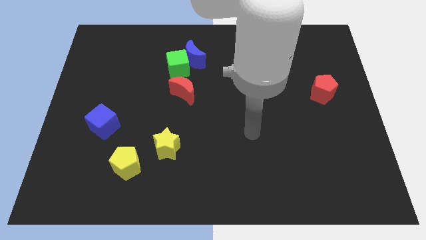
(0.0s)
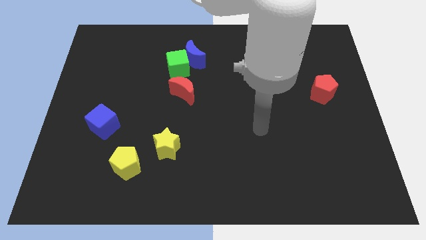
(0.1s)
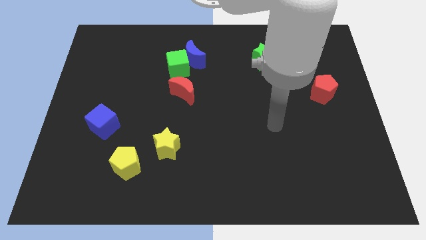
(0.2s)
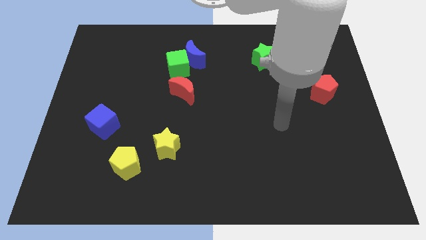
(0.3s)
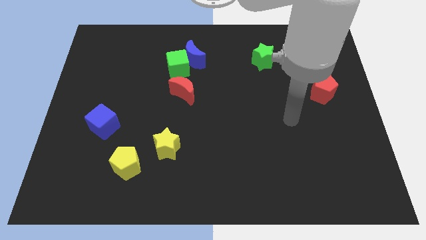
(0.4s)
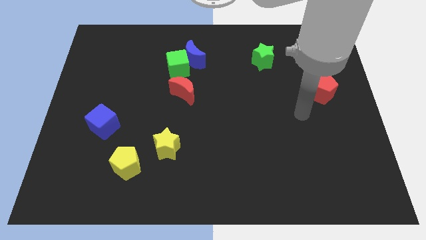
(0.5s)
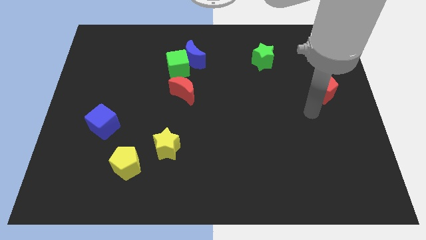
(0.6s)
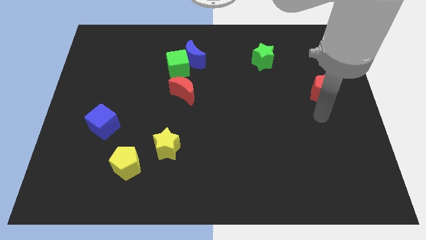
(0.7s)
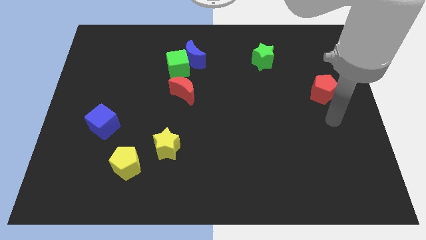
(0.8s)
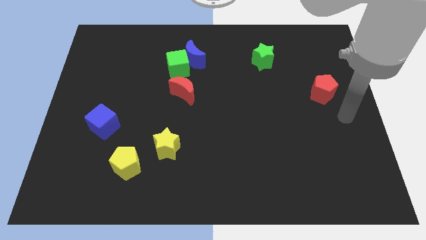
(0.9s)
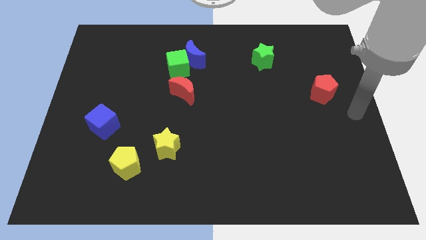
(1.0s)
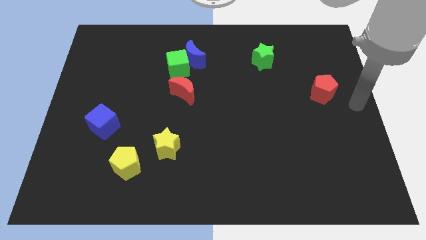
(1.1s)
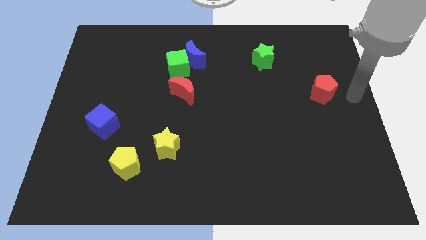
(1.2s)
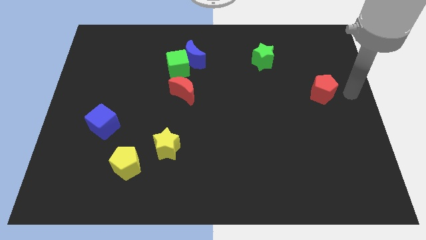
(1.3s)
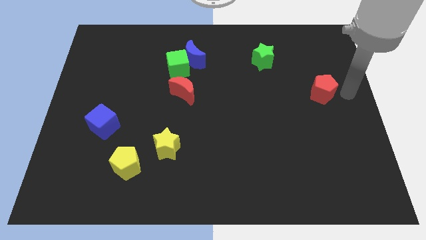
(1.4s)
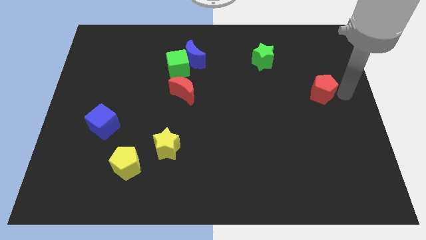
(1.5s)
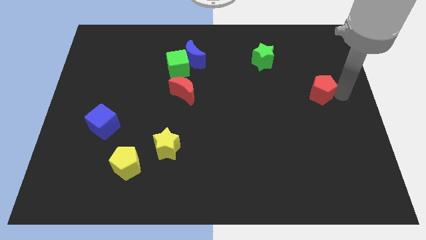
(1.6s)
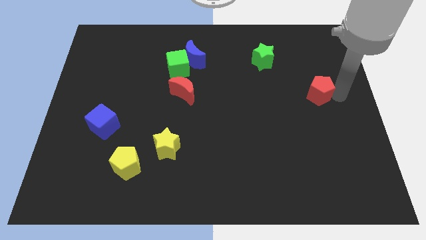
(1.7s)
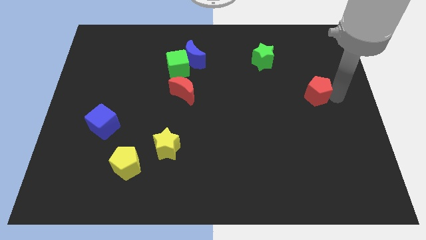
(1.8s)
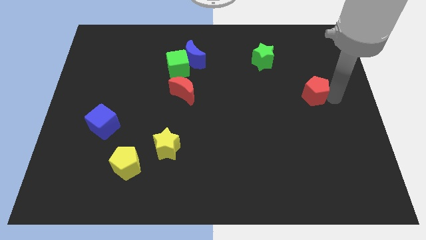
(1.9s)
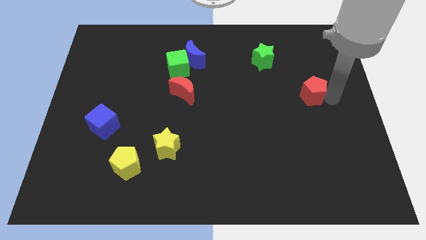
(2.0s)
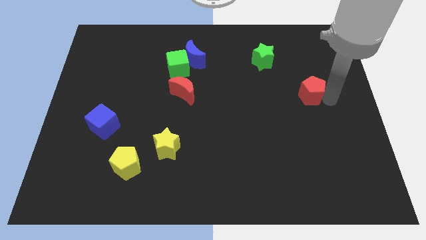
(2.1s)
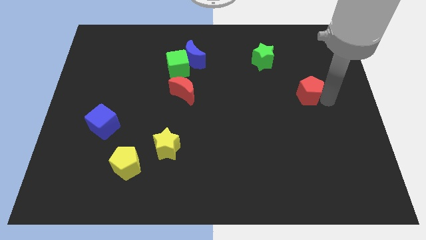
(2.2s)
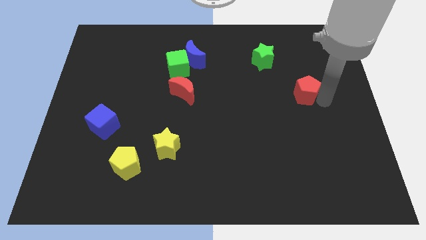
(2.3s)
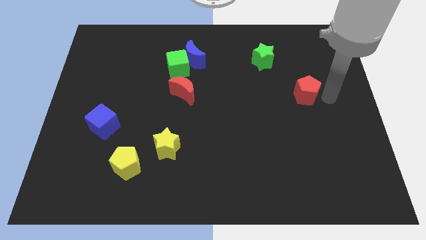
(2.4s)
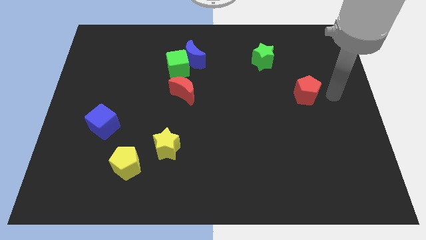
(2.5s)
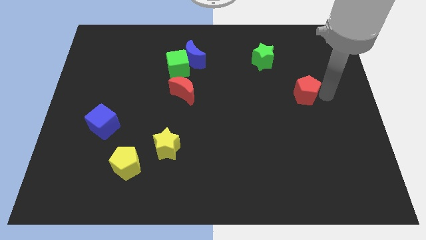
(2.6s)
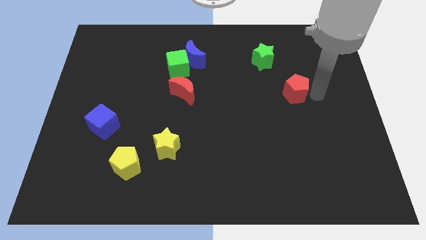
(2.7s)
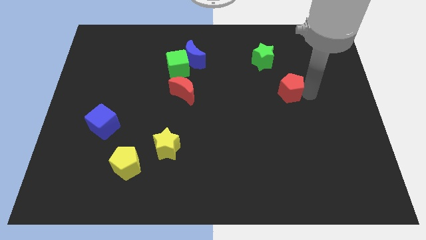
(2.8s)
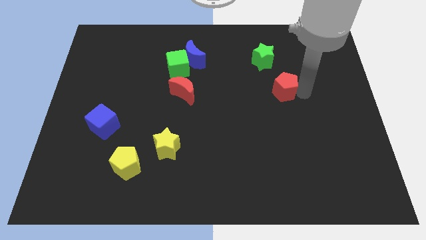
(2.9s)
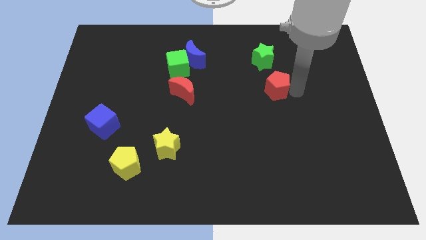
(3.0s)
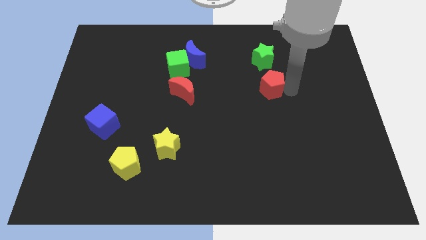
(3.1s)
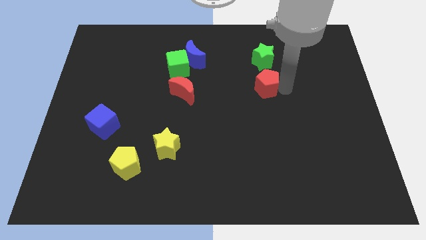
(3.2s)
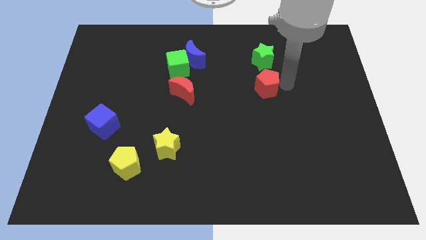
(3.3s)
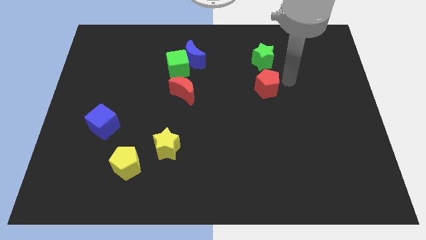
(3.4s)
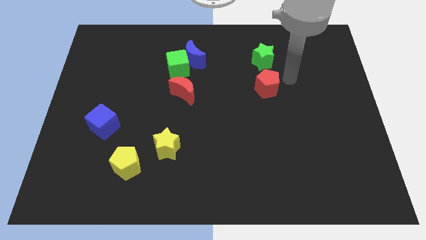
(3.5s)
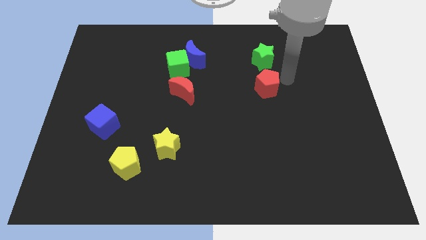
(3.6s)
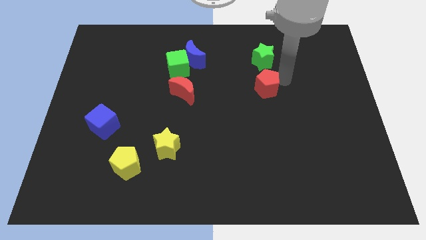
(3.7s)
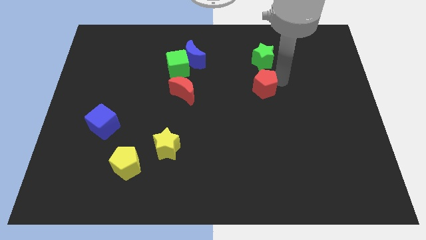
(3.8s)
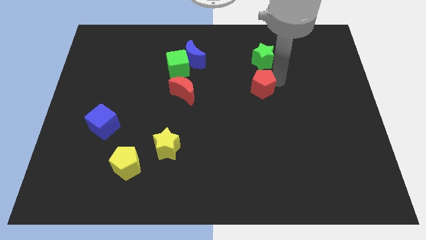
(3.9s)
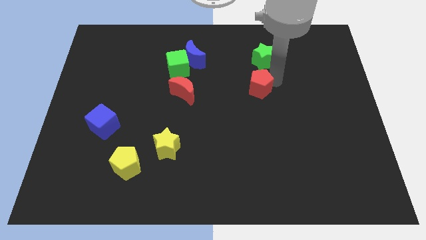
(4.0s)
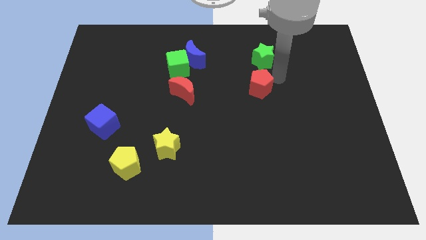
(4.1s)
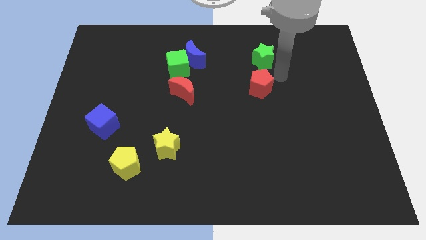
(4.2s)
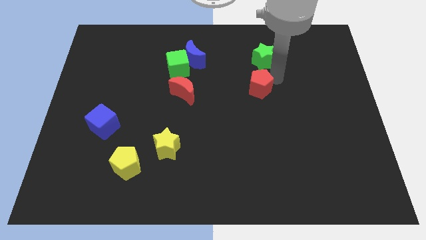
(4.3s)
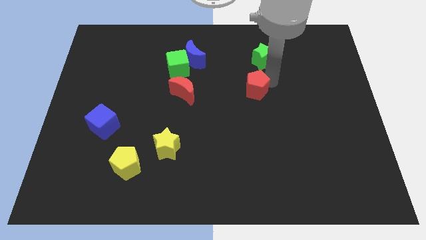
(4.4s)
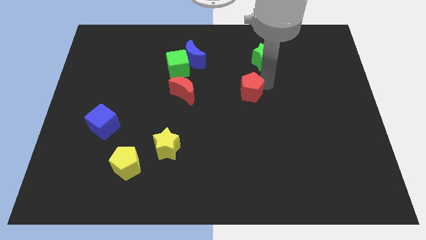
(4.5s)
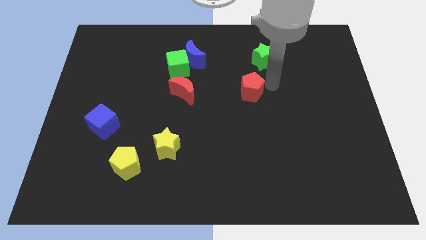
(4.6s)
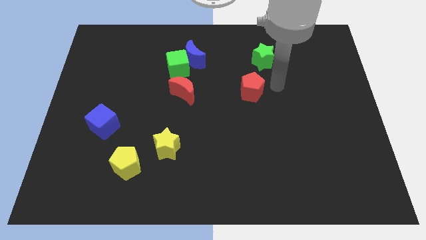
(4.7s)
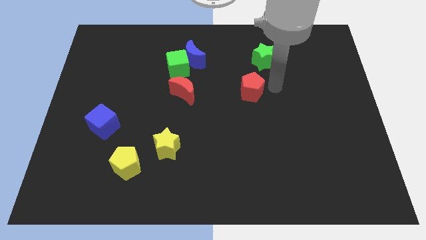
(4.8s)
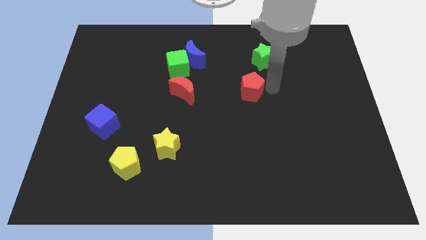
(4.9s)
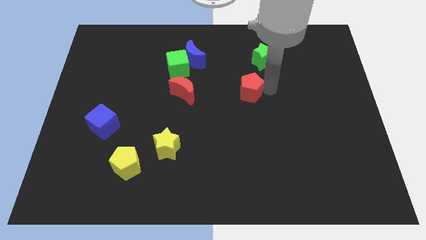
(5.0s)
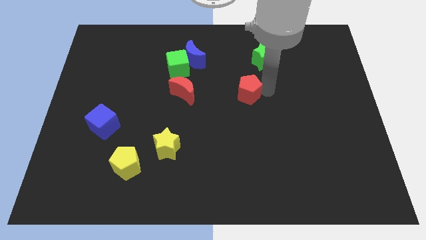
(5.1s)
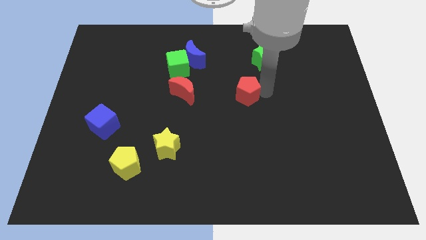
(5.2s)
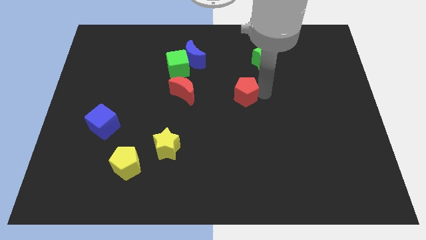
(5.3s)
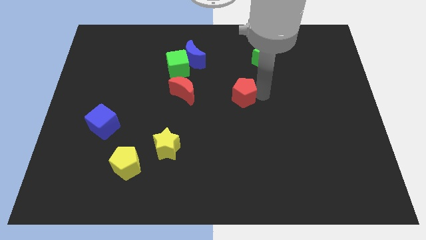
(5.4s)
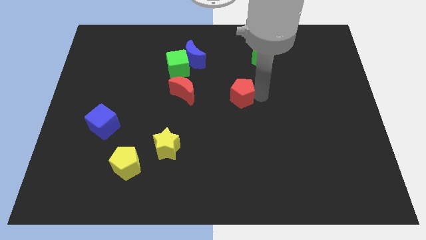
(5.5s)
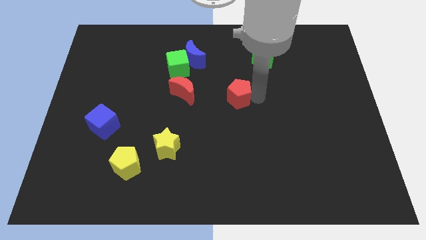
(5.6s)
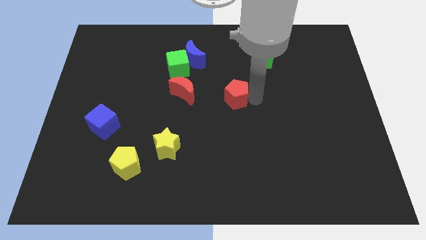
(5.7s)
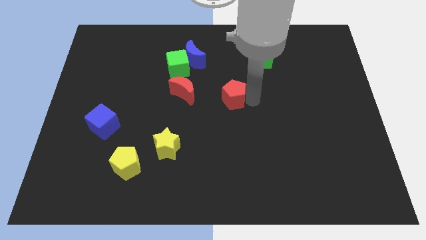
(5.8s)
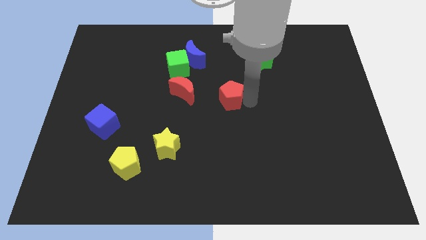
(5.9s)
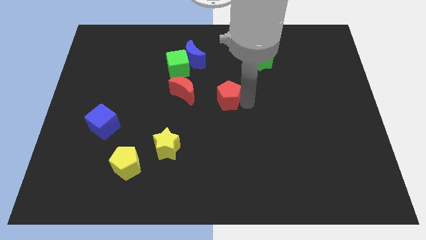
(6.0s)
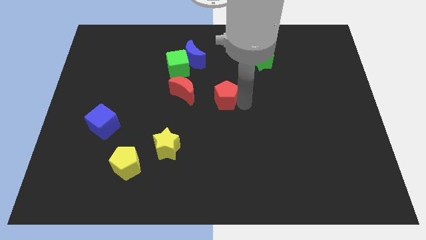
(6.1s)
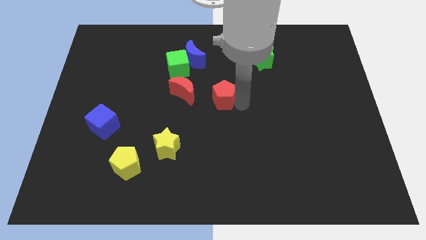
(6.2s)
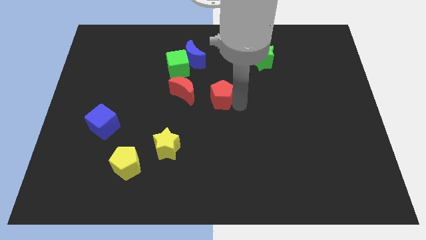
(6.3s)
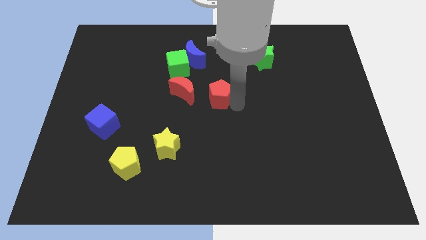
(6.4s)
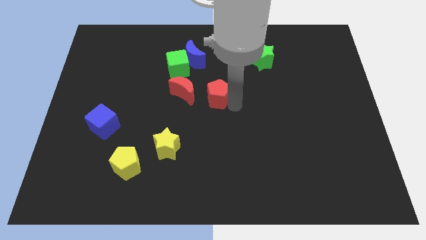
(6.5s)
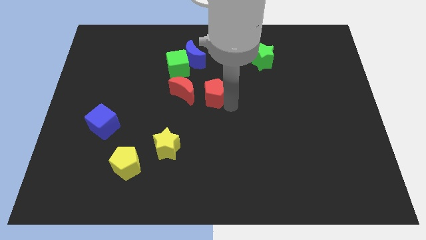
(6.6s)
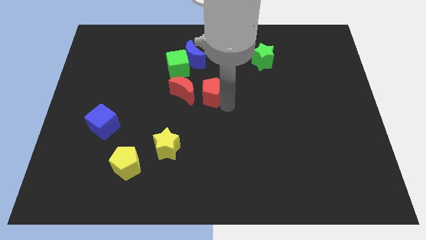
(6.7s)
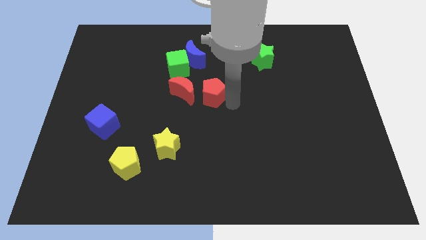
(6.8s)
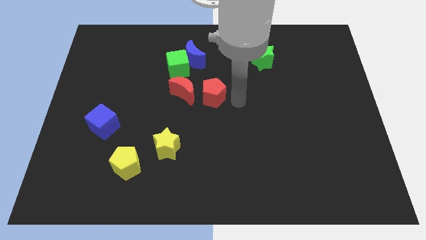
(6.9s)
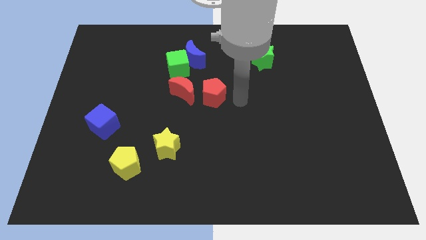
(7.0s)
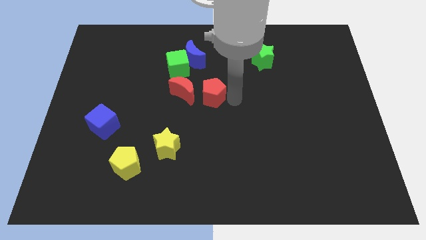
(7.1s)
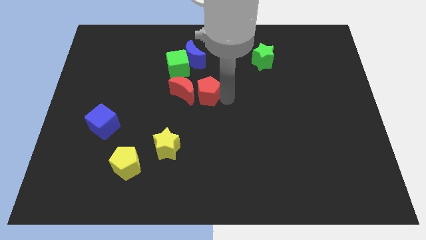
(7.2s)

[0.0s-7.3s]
move the red pentagon to the red moon
